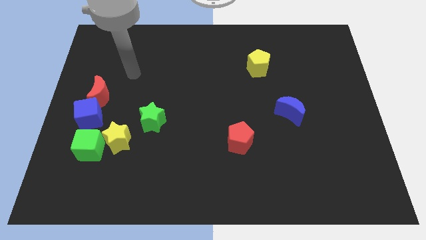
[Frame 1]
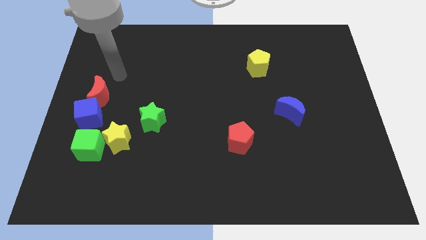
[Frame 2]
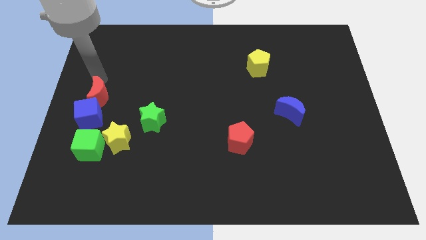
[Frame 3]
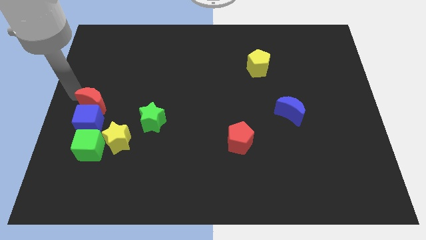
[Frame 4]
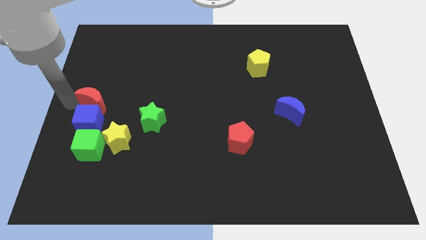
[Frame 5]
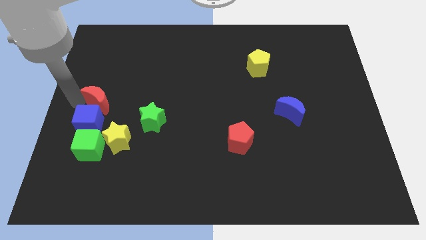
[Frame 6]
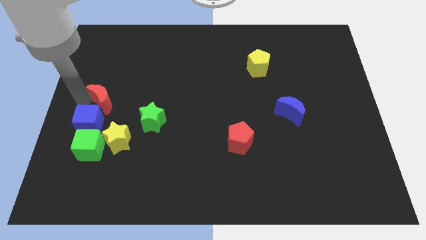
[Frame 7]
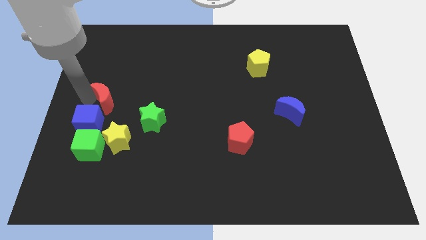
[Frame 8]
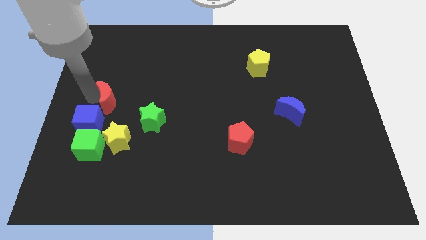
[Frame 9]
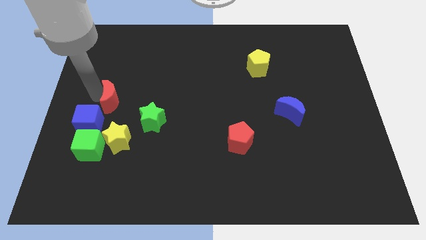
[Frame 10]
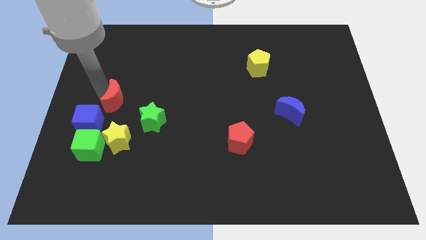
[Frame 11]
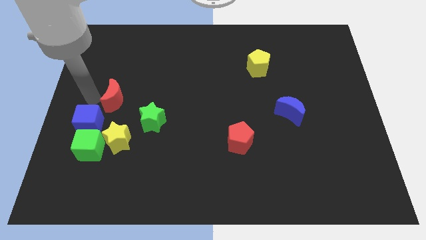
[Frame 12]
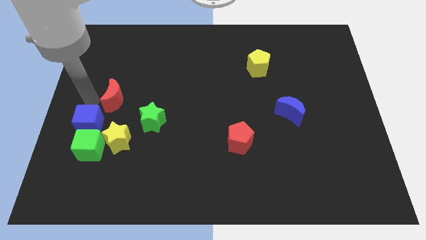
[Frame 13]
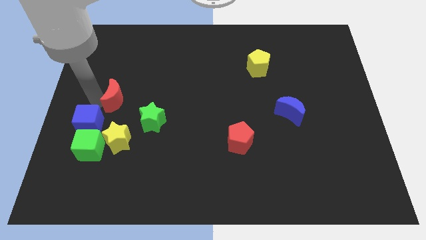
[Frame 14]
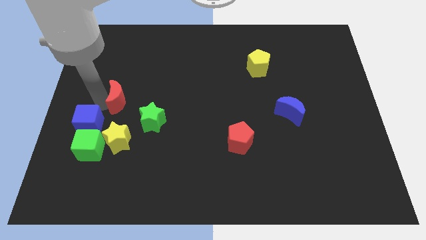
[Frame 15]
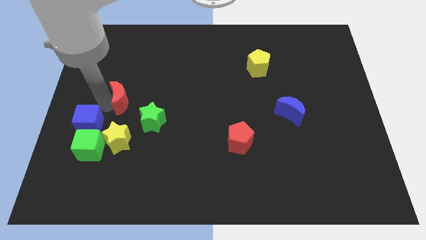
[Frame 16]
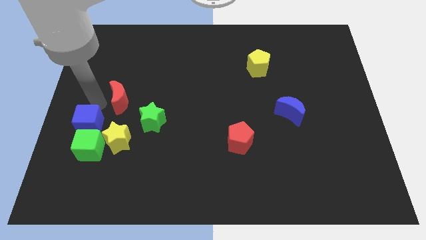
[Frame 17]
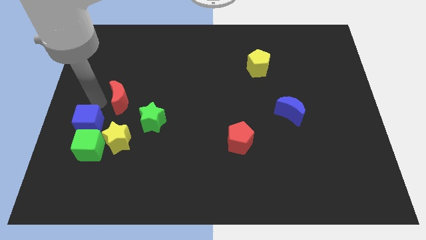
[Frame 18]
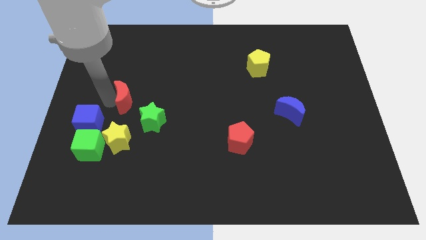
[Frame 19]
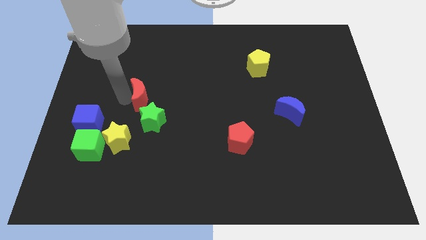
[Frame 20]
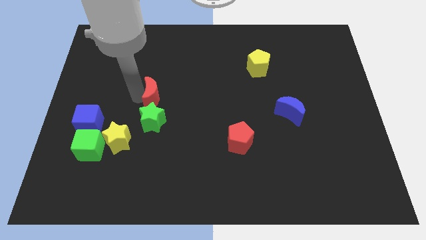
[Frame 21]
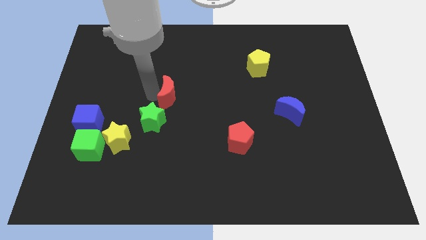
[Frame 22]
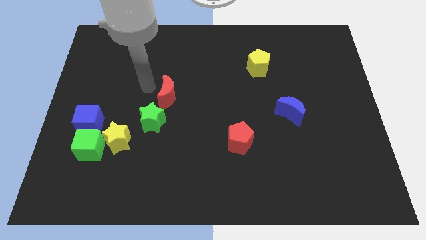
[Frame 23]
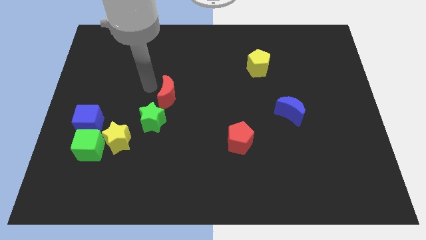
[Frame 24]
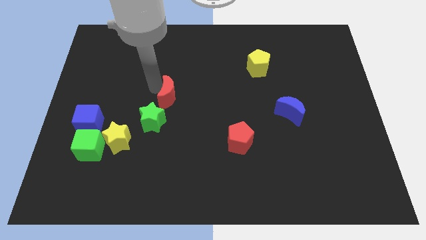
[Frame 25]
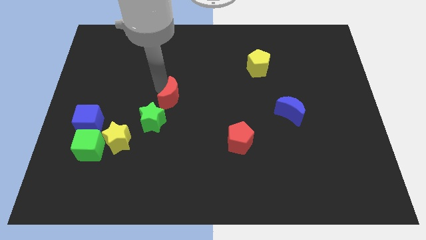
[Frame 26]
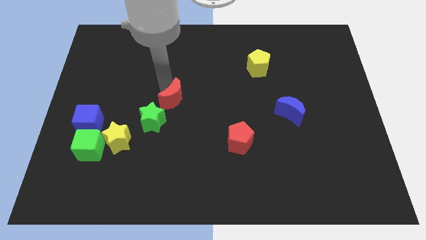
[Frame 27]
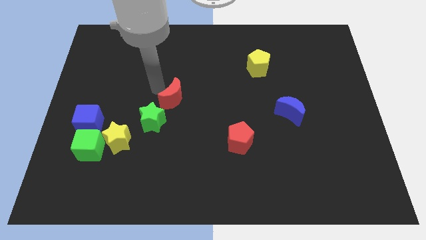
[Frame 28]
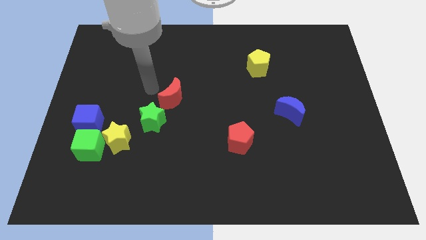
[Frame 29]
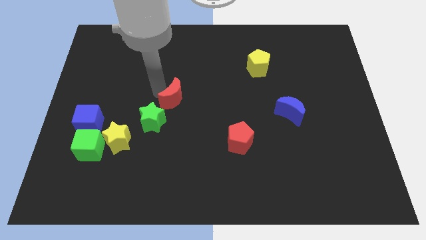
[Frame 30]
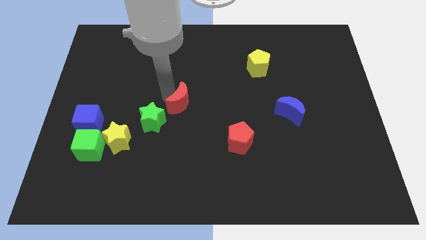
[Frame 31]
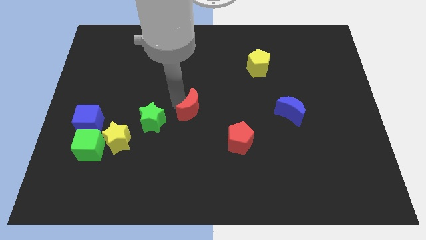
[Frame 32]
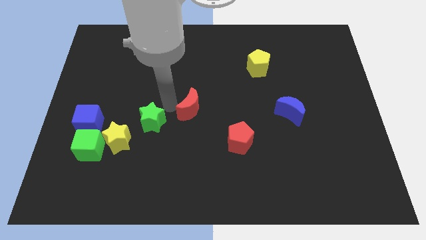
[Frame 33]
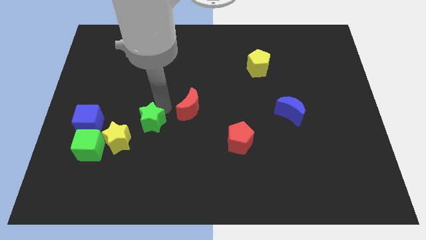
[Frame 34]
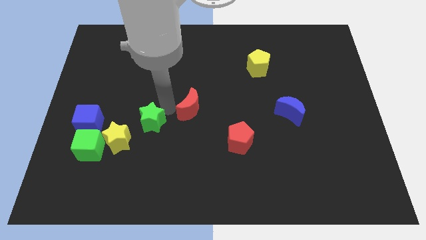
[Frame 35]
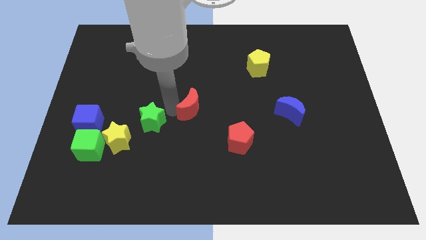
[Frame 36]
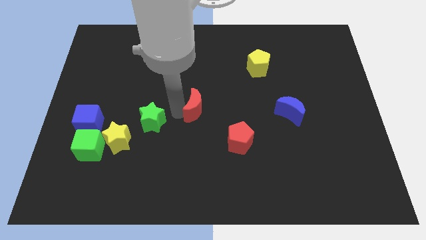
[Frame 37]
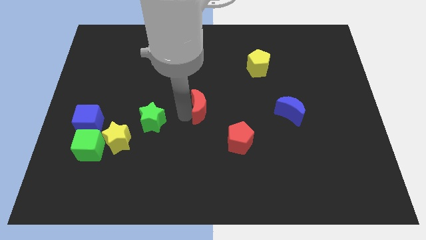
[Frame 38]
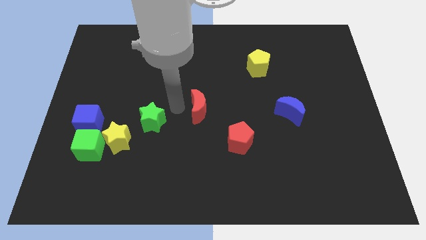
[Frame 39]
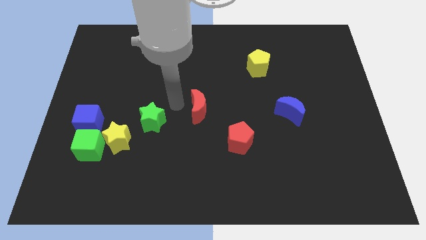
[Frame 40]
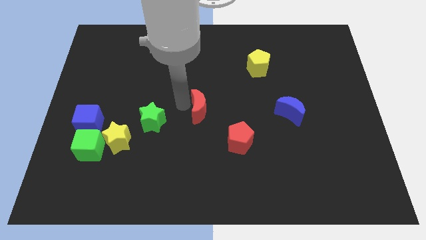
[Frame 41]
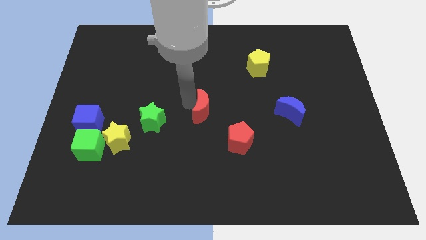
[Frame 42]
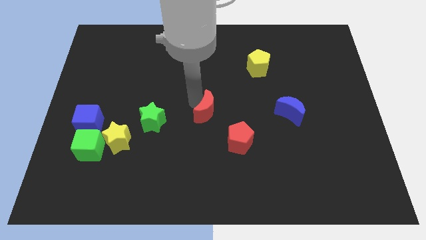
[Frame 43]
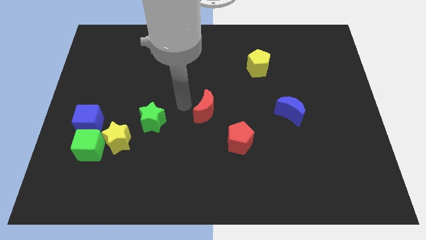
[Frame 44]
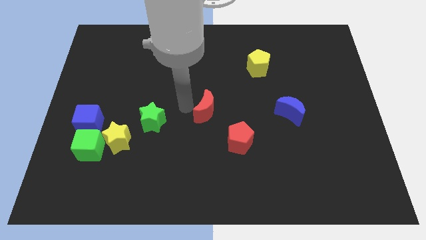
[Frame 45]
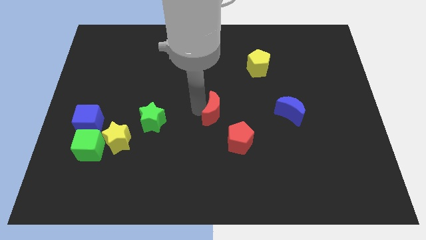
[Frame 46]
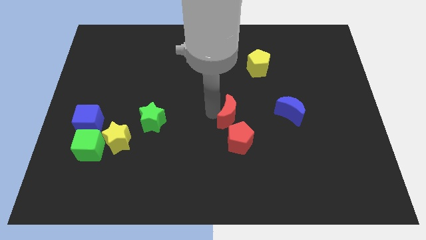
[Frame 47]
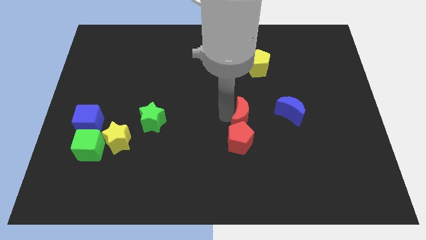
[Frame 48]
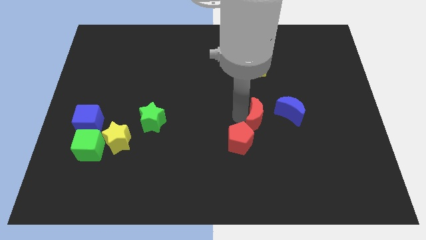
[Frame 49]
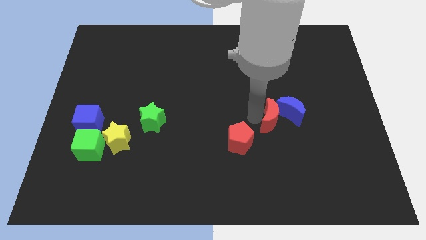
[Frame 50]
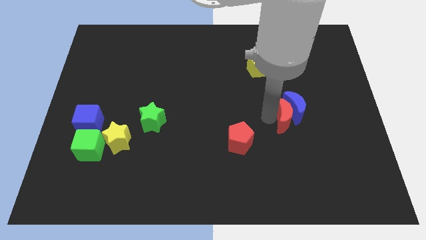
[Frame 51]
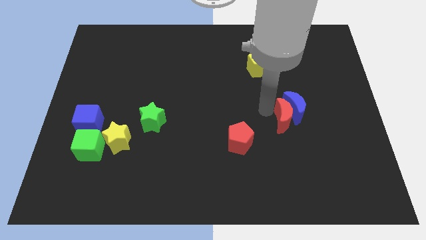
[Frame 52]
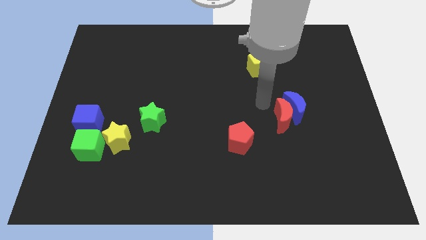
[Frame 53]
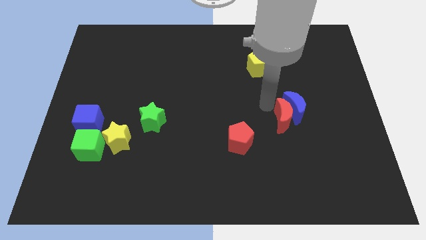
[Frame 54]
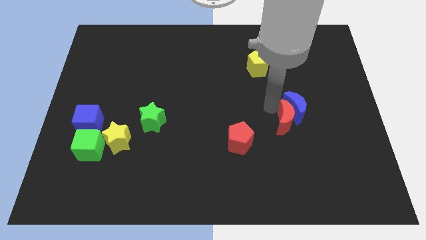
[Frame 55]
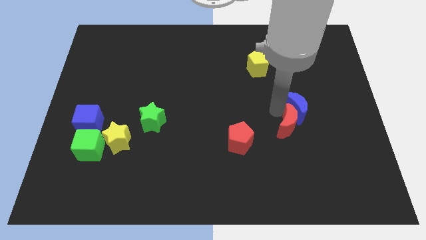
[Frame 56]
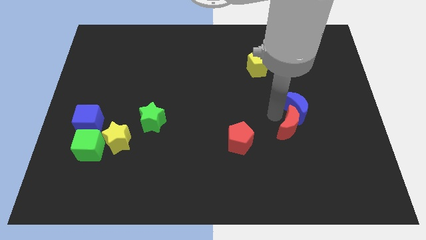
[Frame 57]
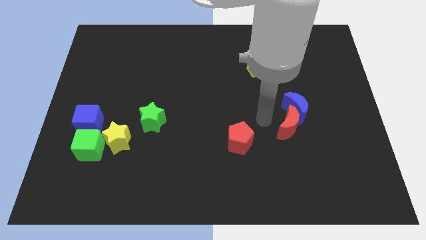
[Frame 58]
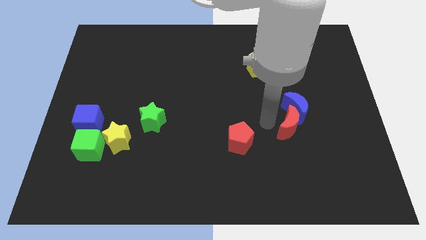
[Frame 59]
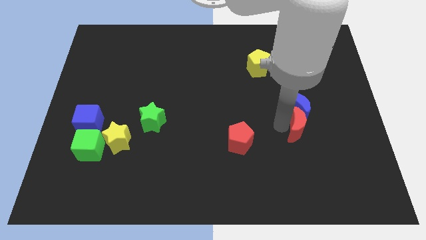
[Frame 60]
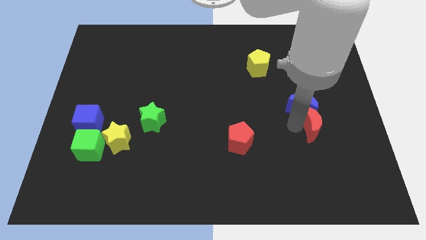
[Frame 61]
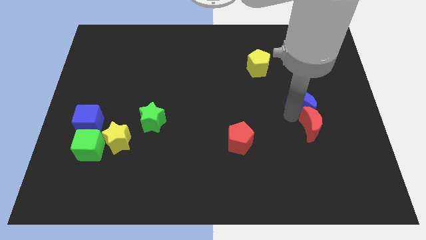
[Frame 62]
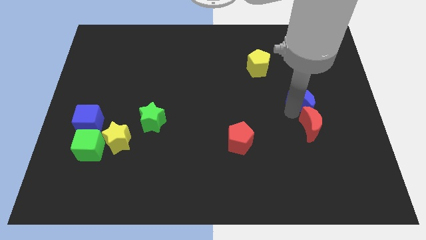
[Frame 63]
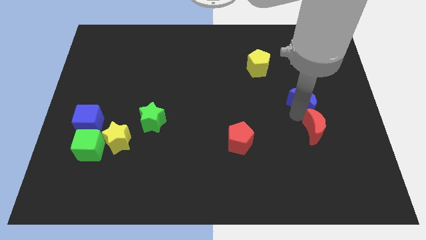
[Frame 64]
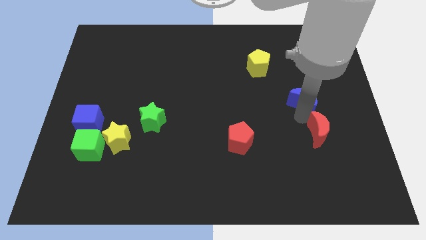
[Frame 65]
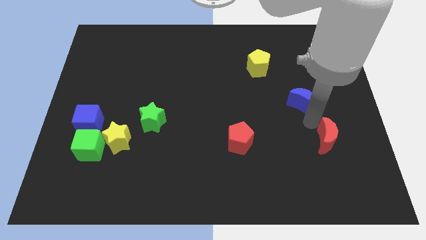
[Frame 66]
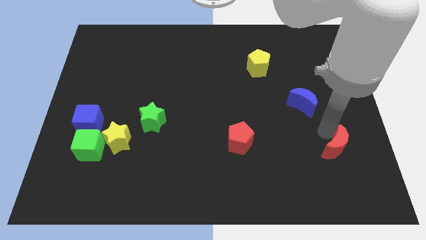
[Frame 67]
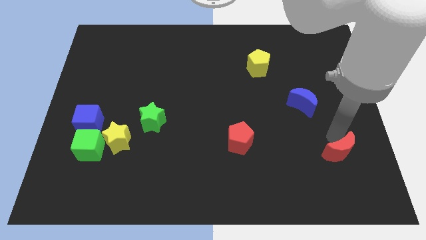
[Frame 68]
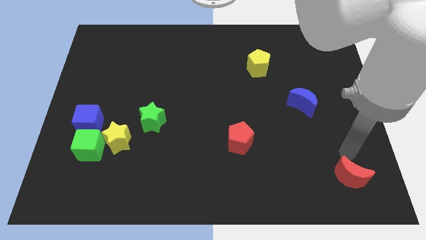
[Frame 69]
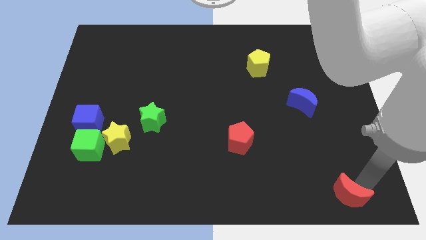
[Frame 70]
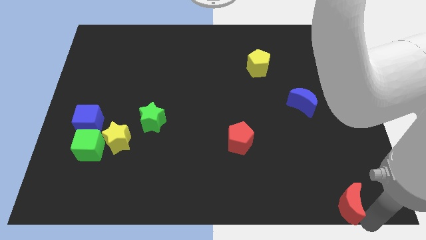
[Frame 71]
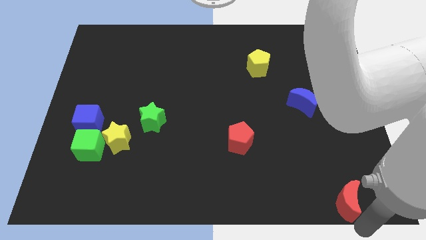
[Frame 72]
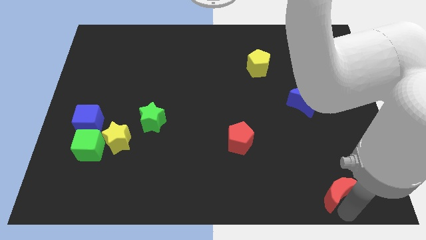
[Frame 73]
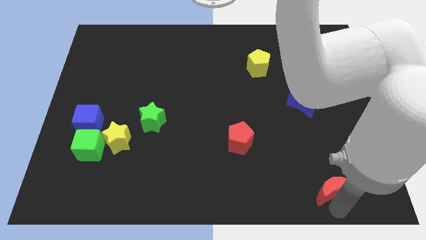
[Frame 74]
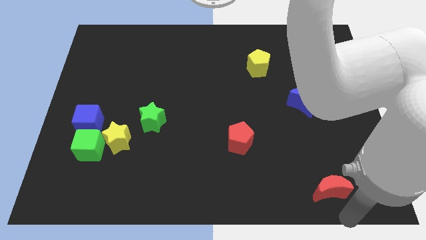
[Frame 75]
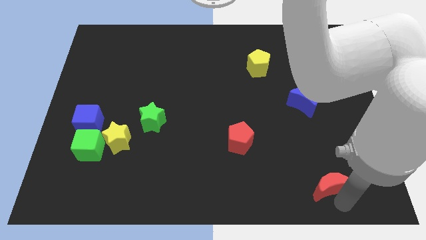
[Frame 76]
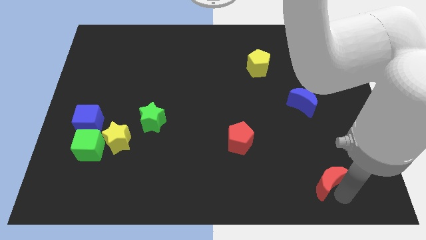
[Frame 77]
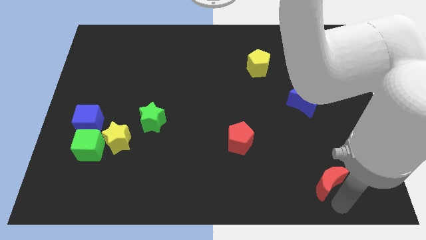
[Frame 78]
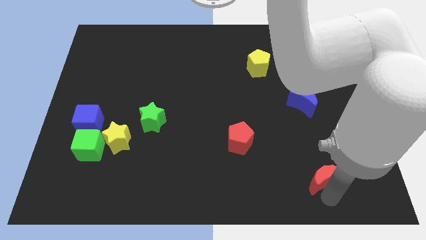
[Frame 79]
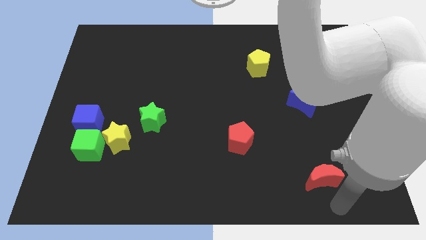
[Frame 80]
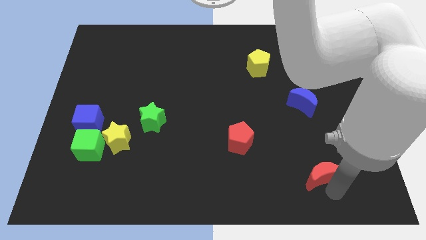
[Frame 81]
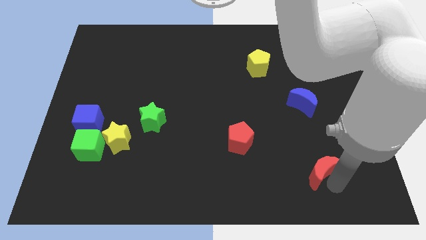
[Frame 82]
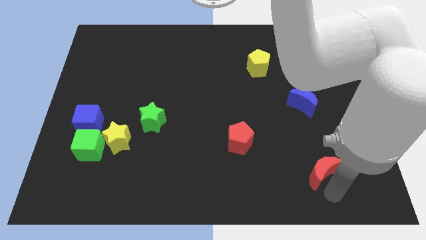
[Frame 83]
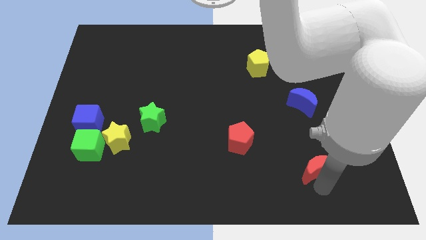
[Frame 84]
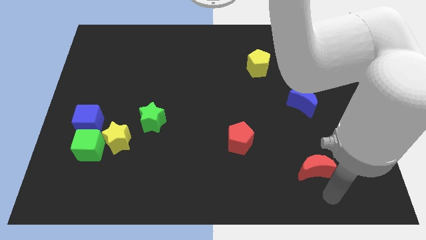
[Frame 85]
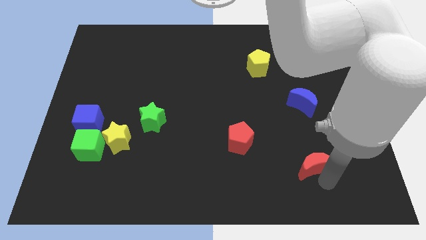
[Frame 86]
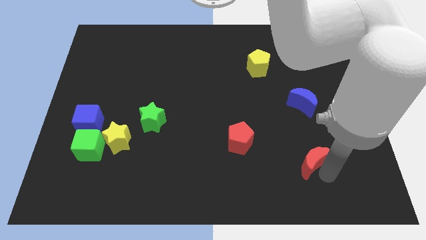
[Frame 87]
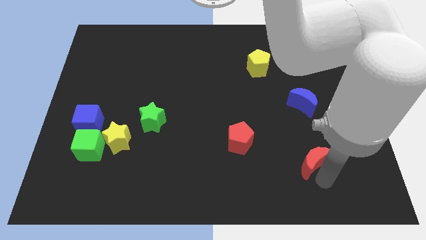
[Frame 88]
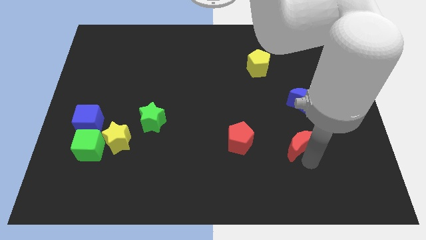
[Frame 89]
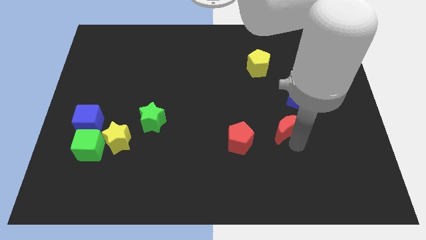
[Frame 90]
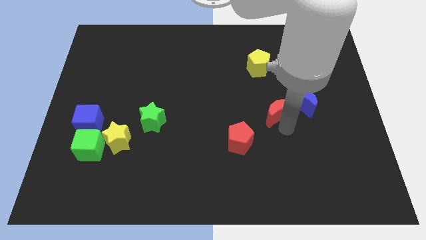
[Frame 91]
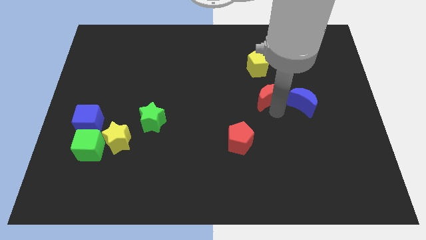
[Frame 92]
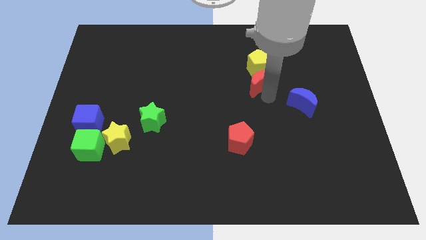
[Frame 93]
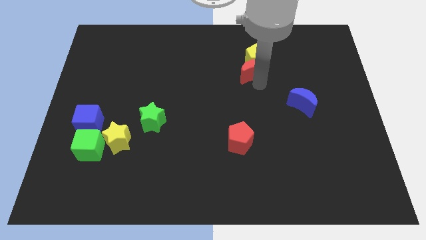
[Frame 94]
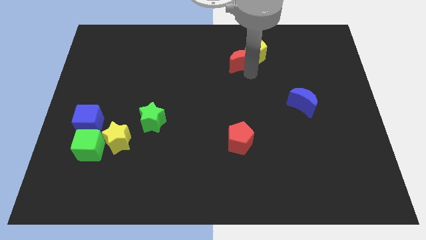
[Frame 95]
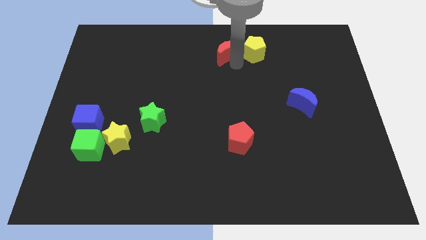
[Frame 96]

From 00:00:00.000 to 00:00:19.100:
push the red moon to the top
